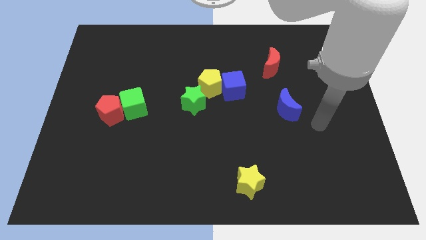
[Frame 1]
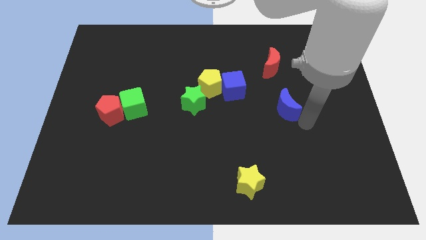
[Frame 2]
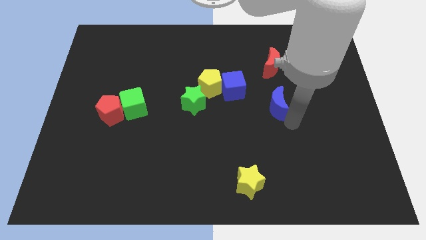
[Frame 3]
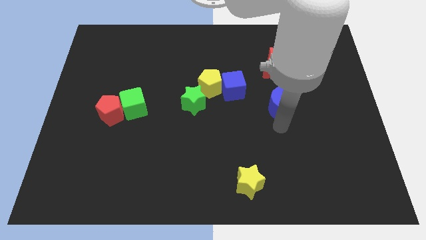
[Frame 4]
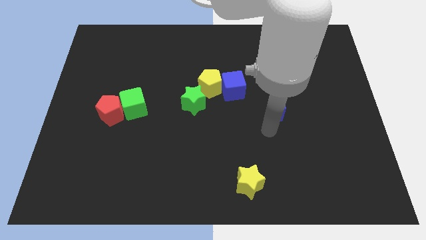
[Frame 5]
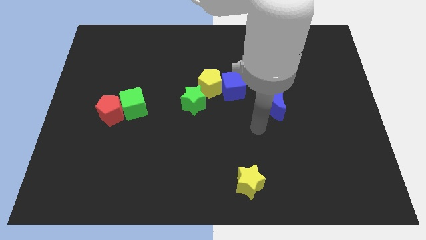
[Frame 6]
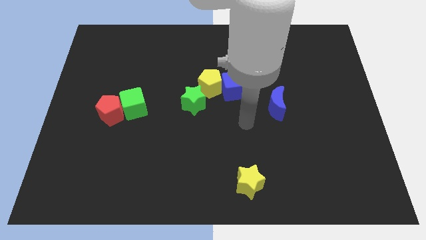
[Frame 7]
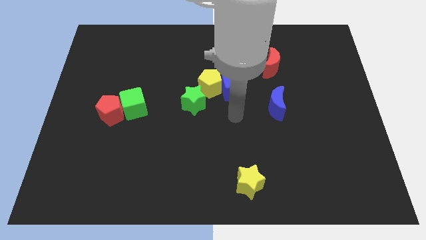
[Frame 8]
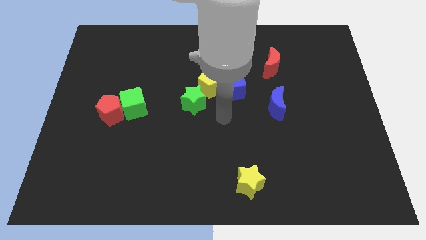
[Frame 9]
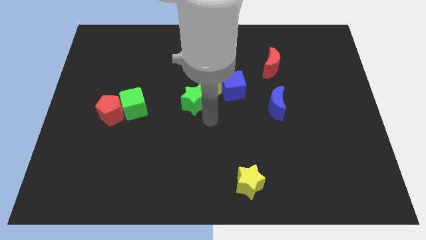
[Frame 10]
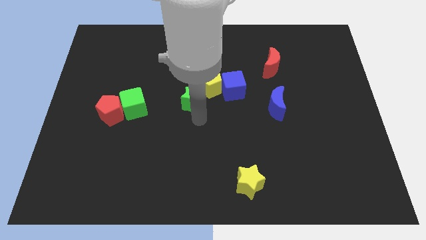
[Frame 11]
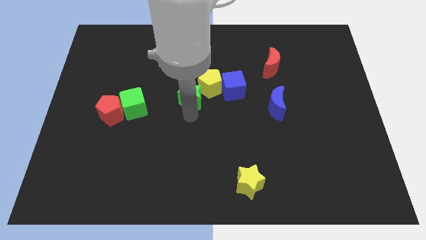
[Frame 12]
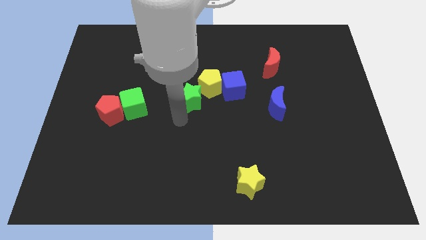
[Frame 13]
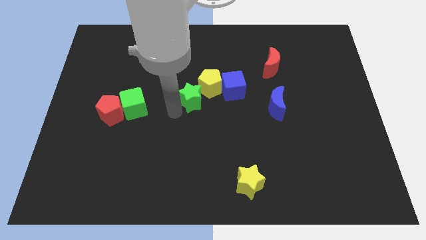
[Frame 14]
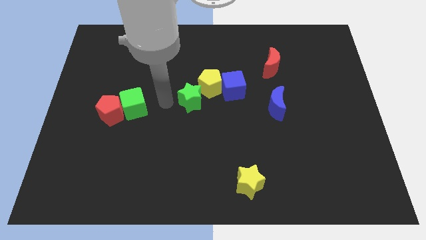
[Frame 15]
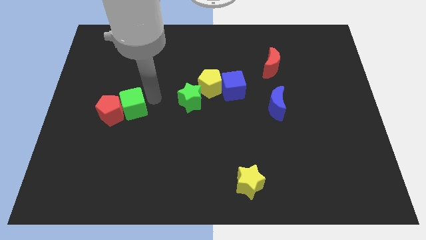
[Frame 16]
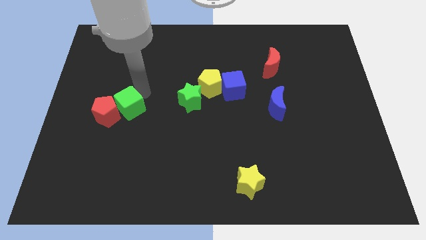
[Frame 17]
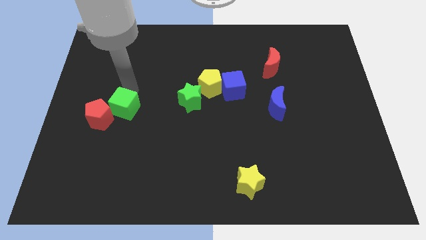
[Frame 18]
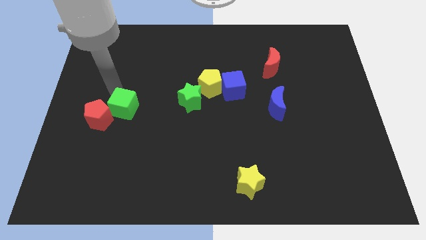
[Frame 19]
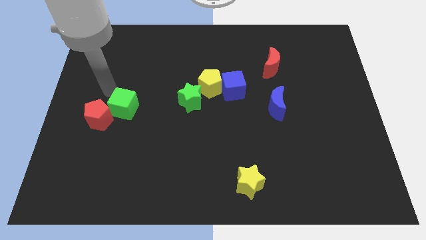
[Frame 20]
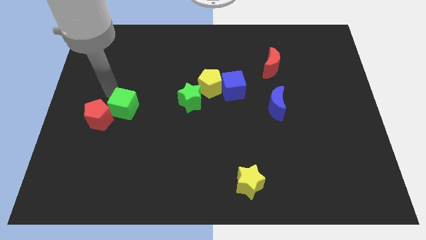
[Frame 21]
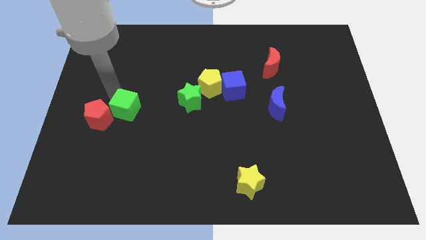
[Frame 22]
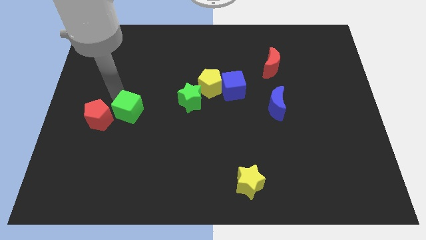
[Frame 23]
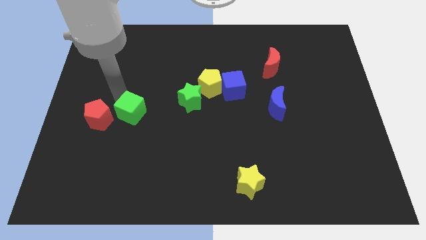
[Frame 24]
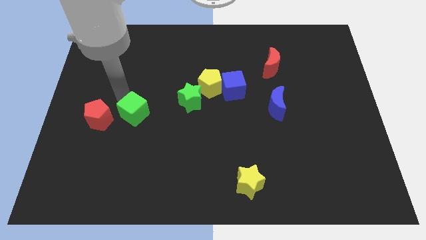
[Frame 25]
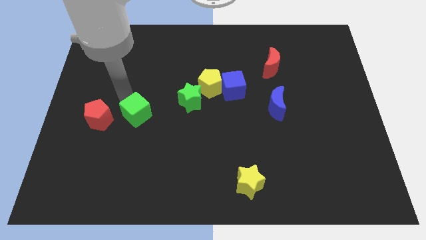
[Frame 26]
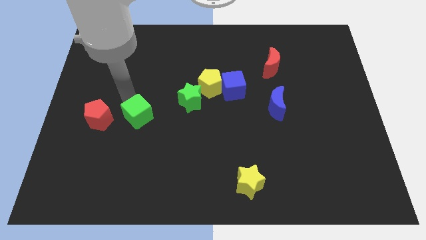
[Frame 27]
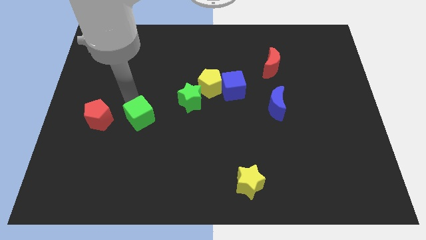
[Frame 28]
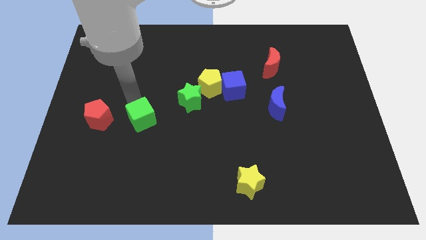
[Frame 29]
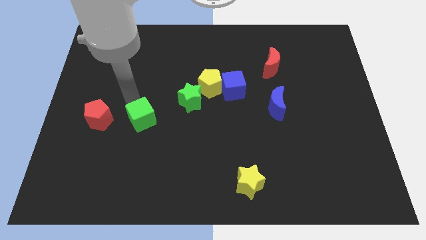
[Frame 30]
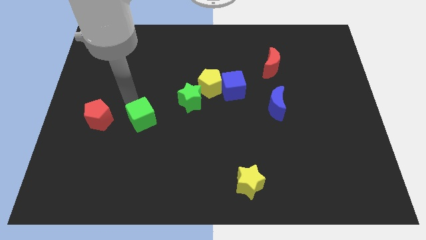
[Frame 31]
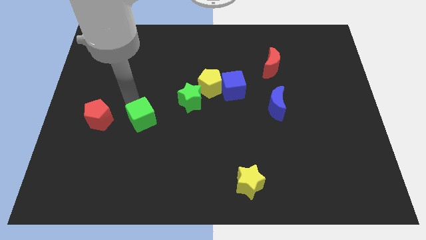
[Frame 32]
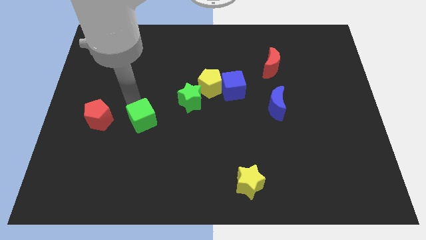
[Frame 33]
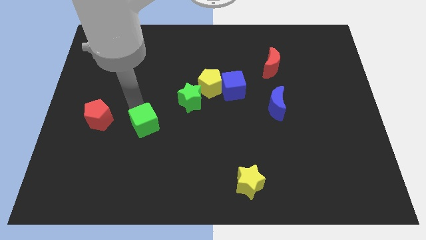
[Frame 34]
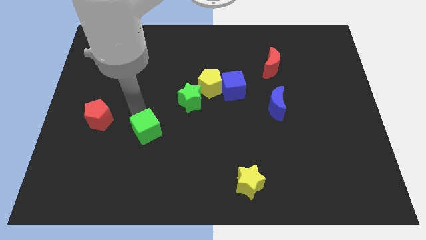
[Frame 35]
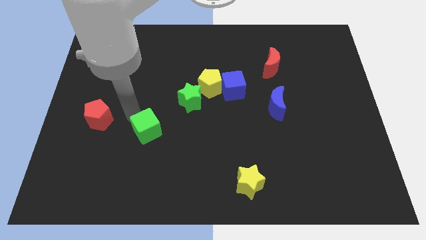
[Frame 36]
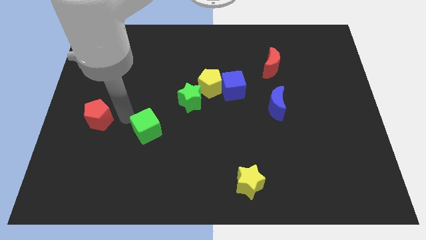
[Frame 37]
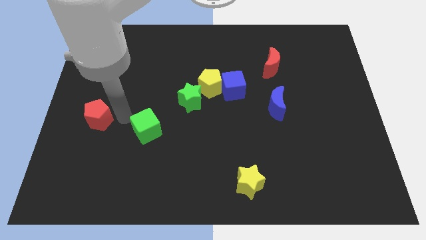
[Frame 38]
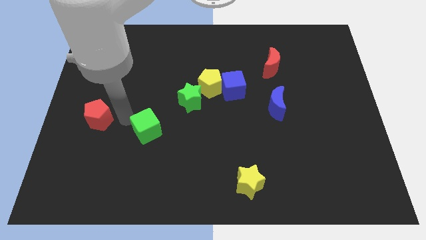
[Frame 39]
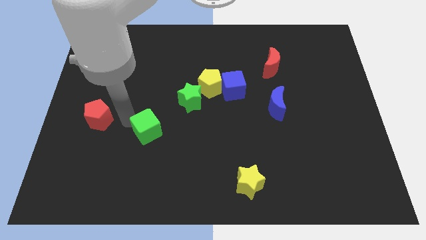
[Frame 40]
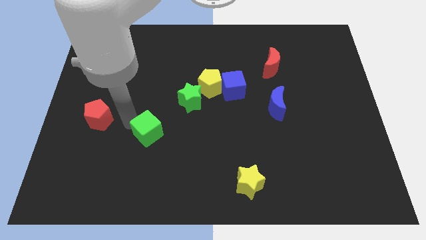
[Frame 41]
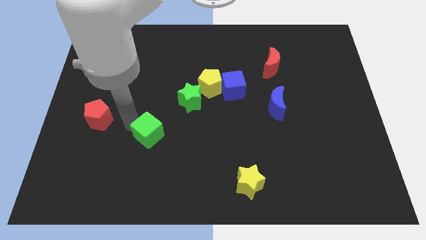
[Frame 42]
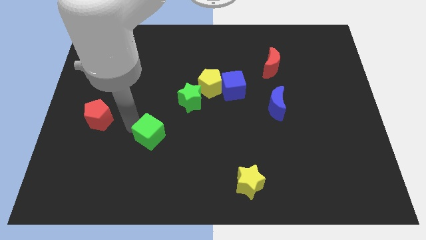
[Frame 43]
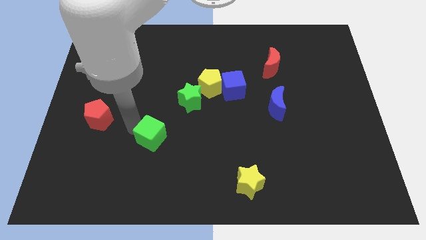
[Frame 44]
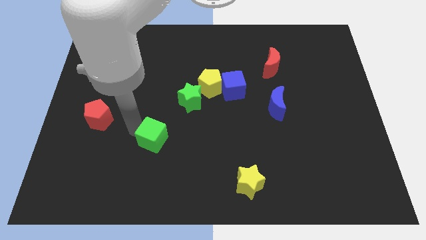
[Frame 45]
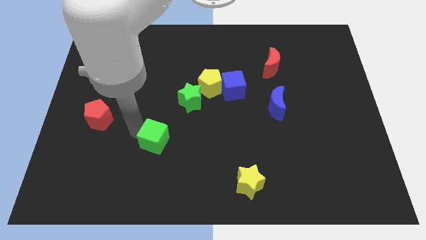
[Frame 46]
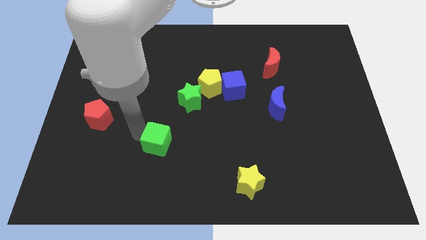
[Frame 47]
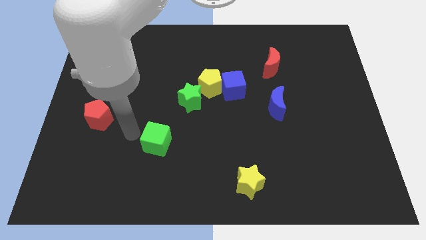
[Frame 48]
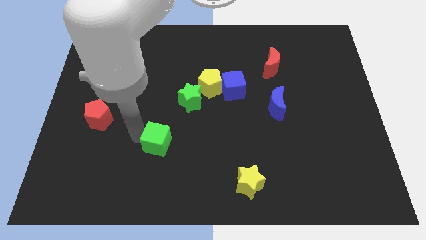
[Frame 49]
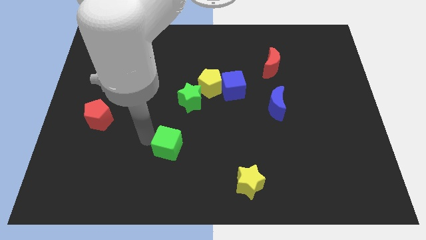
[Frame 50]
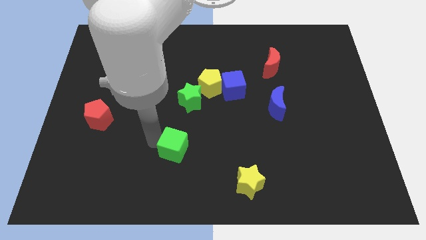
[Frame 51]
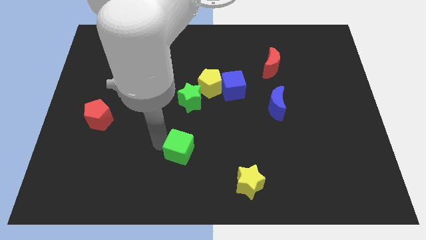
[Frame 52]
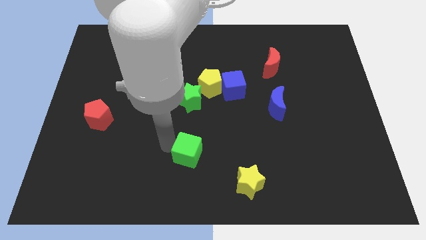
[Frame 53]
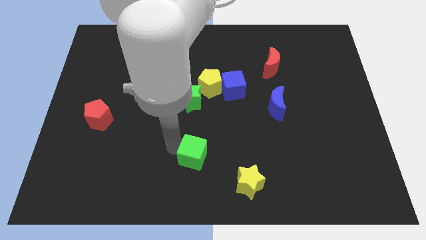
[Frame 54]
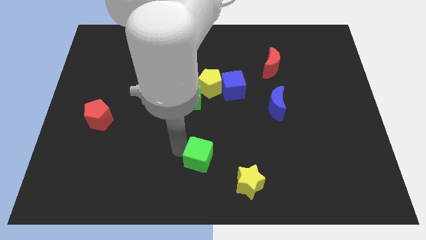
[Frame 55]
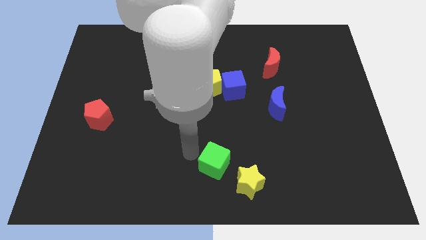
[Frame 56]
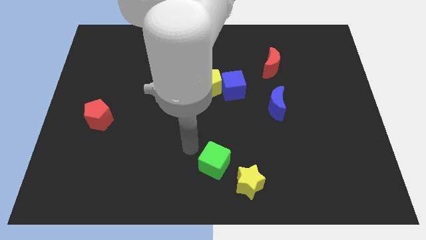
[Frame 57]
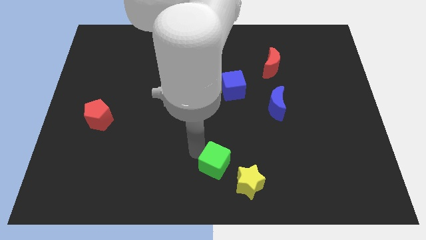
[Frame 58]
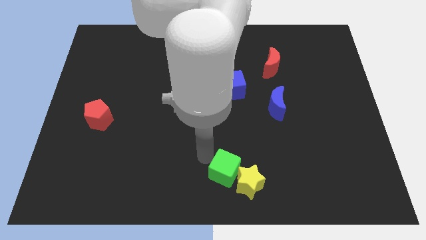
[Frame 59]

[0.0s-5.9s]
push the green cube next to the yellow star

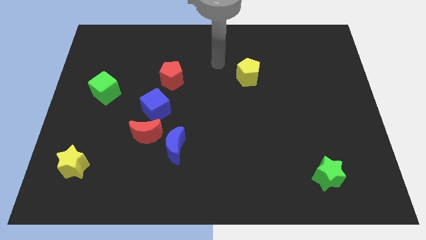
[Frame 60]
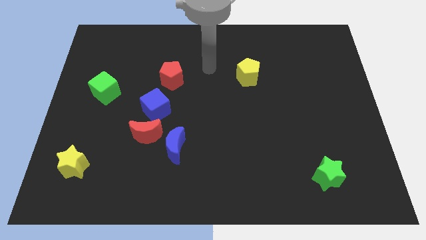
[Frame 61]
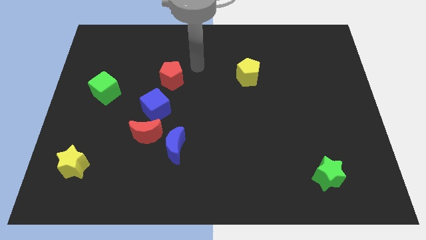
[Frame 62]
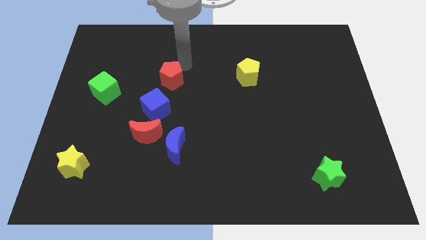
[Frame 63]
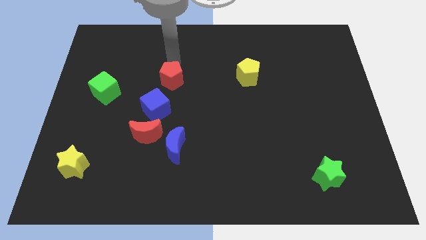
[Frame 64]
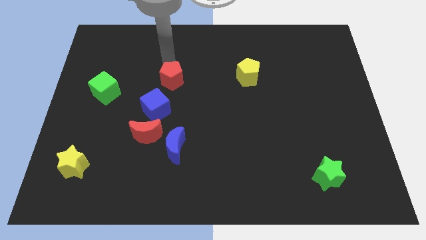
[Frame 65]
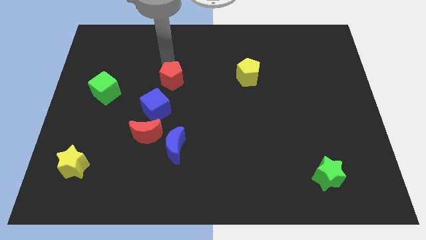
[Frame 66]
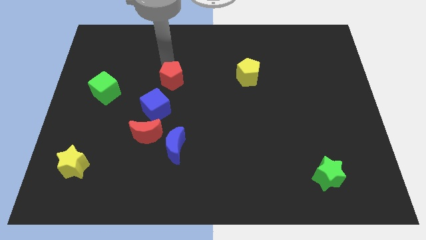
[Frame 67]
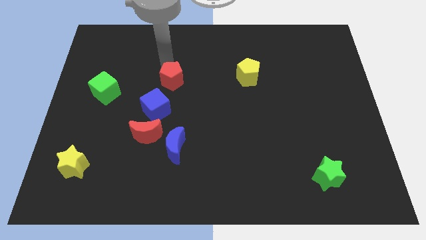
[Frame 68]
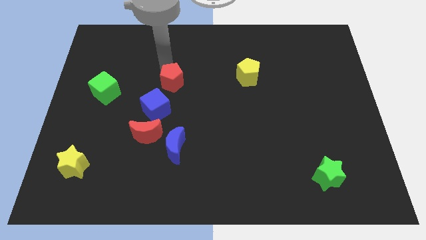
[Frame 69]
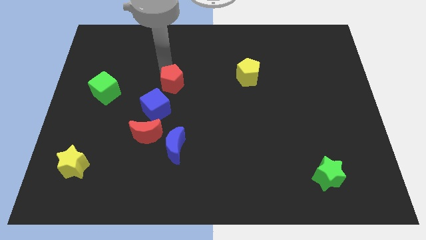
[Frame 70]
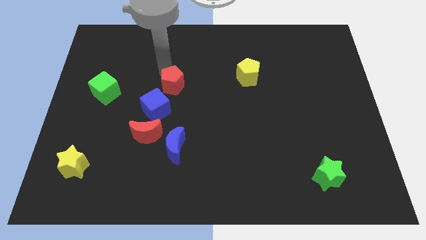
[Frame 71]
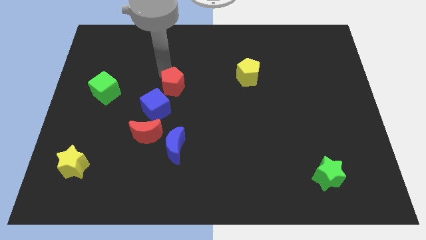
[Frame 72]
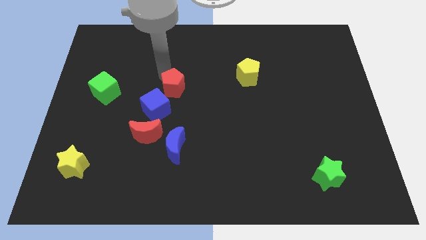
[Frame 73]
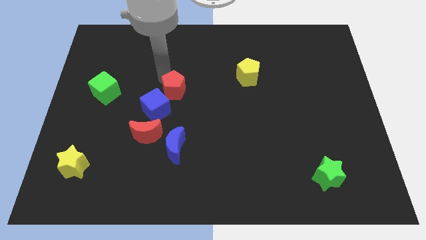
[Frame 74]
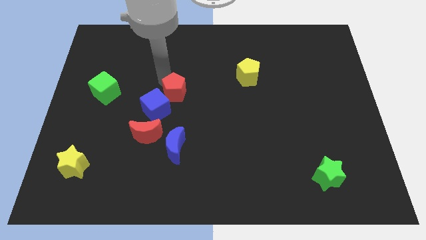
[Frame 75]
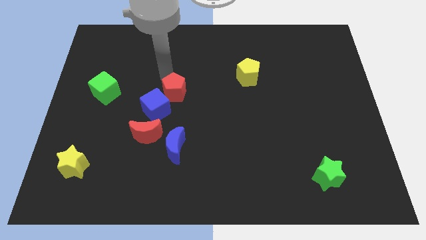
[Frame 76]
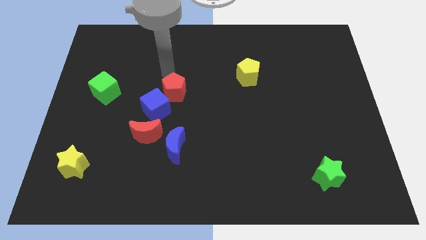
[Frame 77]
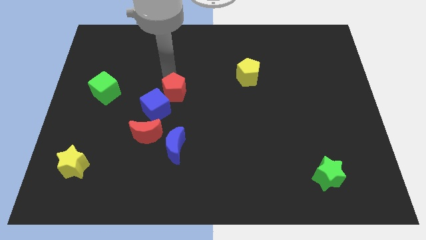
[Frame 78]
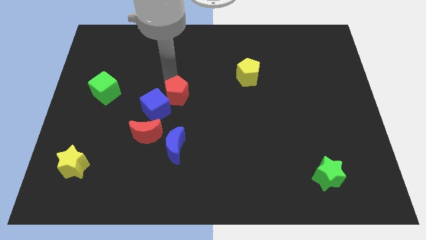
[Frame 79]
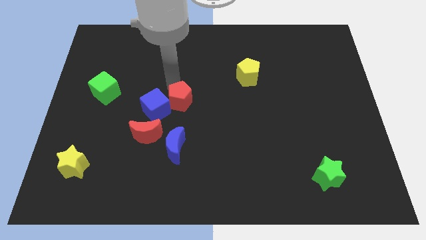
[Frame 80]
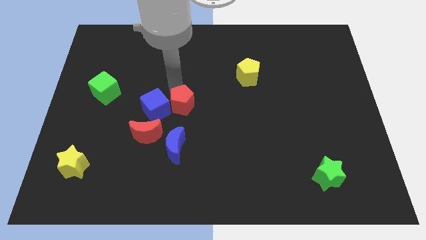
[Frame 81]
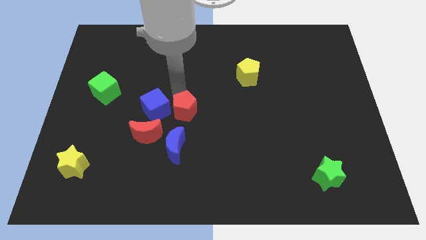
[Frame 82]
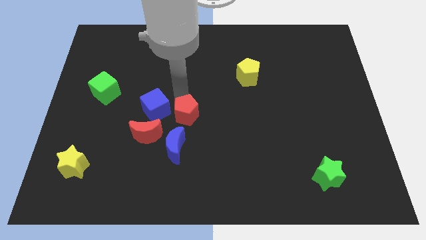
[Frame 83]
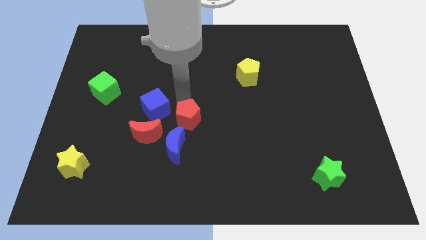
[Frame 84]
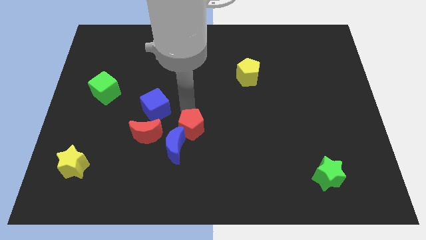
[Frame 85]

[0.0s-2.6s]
put the red pentagon next to the blue moon
